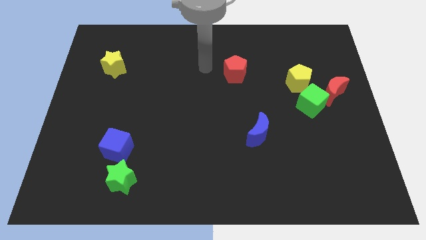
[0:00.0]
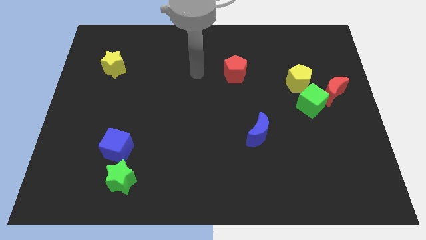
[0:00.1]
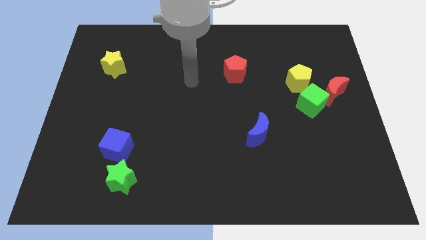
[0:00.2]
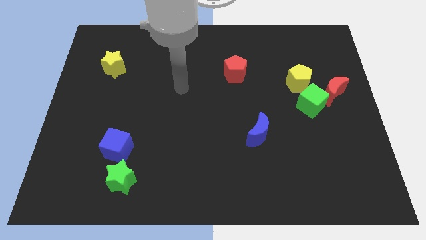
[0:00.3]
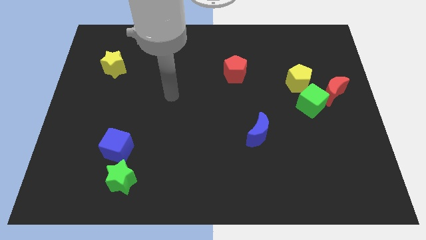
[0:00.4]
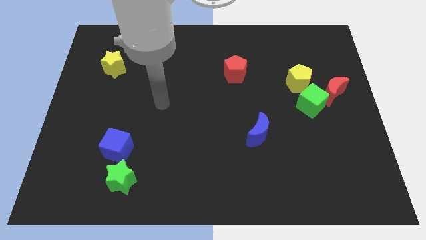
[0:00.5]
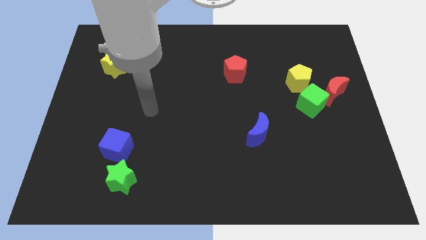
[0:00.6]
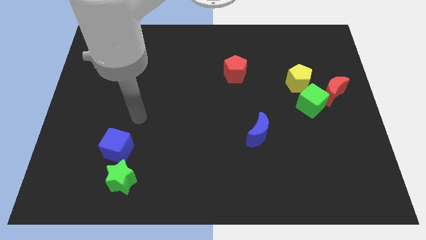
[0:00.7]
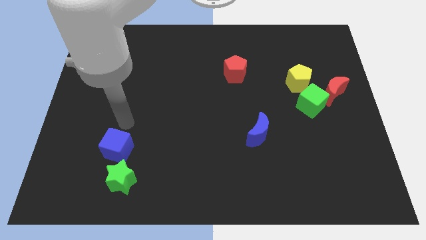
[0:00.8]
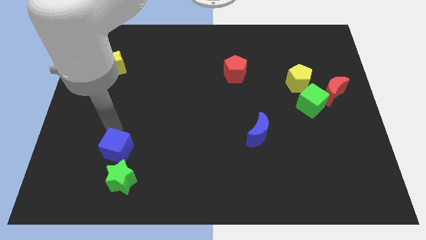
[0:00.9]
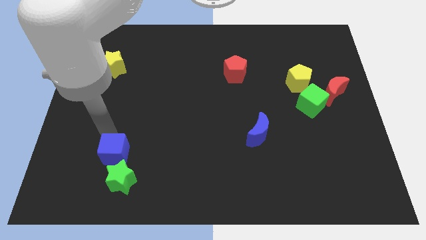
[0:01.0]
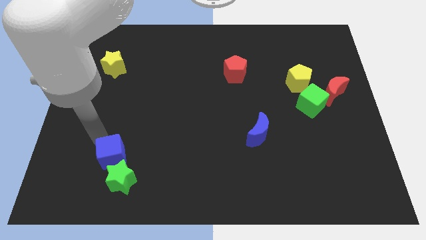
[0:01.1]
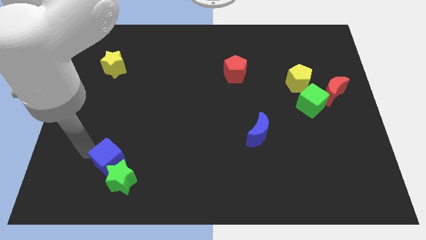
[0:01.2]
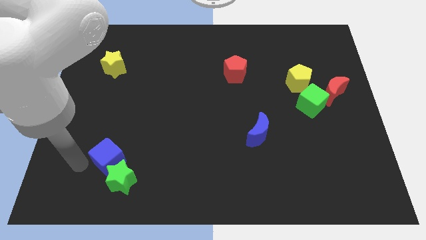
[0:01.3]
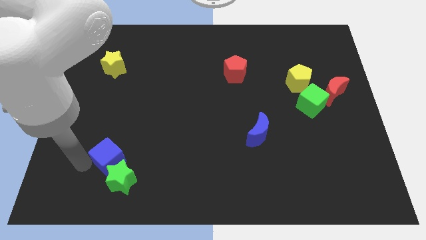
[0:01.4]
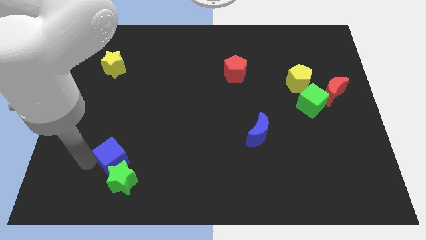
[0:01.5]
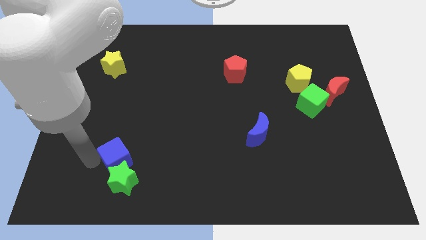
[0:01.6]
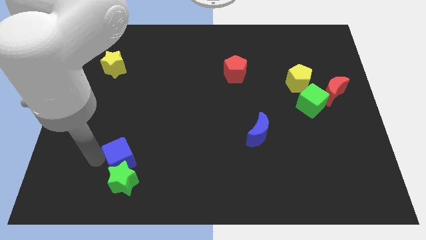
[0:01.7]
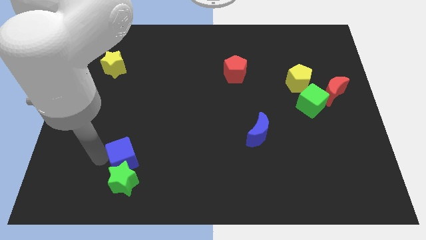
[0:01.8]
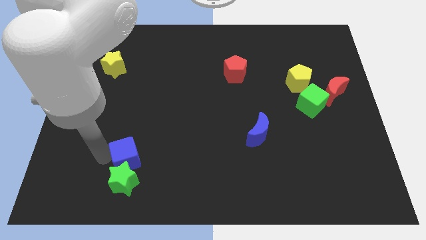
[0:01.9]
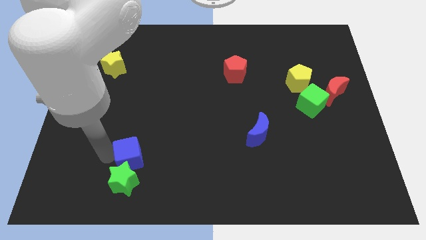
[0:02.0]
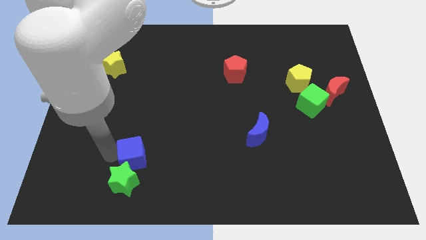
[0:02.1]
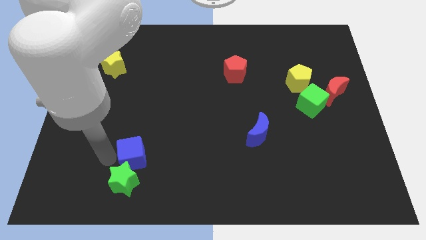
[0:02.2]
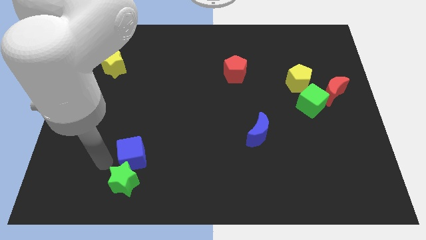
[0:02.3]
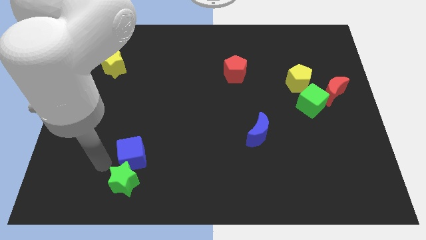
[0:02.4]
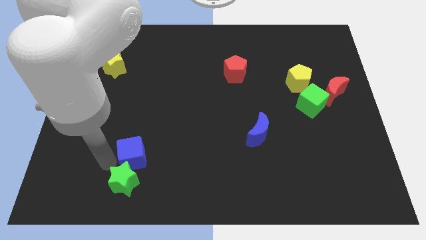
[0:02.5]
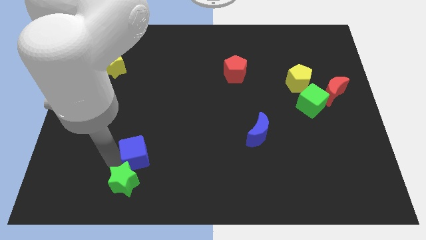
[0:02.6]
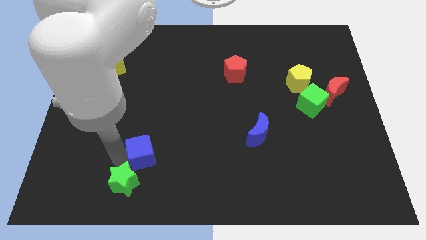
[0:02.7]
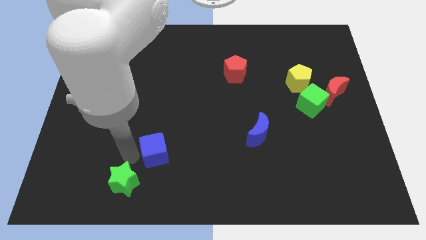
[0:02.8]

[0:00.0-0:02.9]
push the blue cube right a little

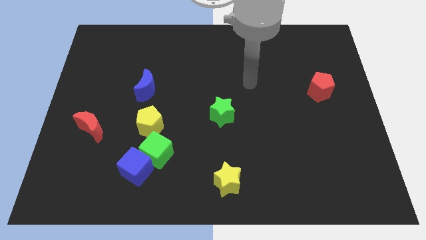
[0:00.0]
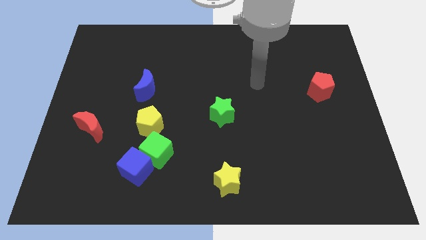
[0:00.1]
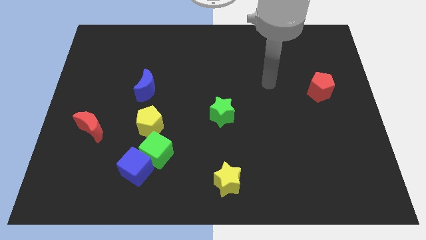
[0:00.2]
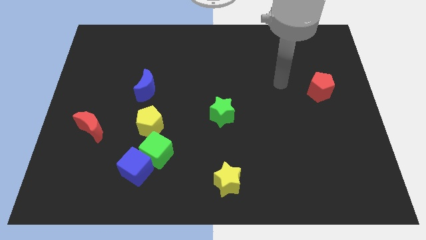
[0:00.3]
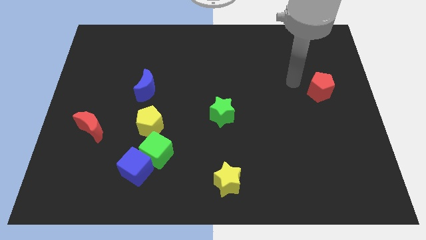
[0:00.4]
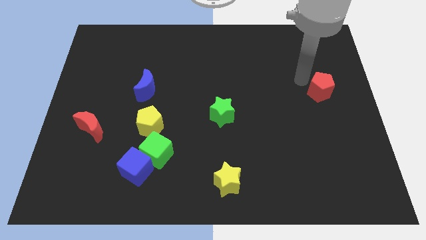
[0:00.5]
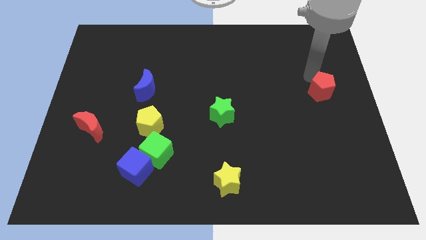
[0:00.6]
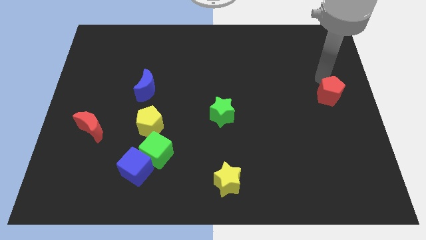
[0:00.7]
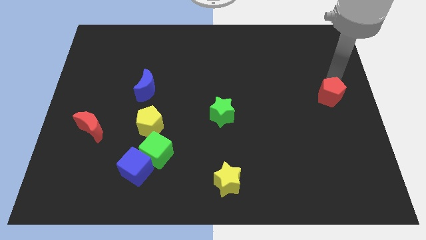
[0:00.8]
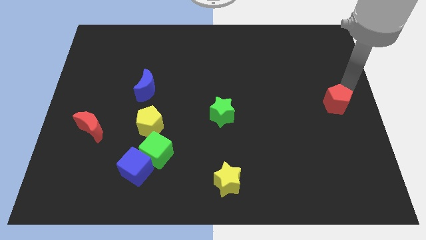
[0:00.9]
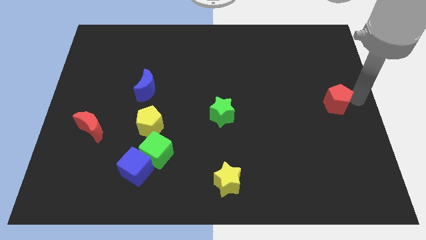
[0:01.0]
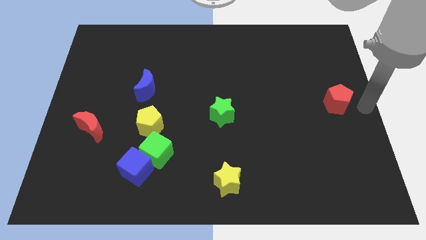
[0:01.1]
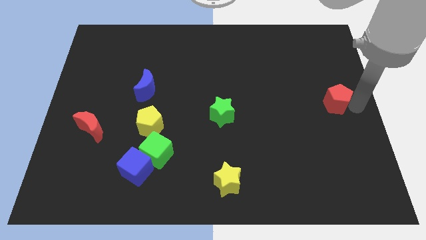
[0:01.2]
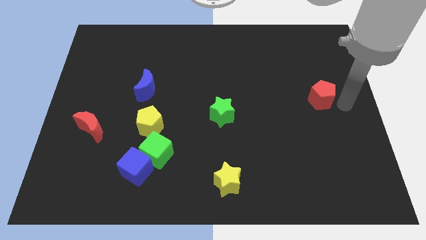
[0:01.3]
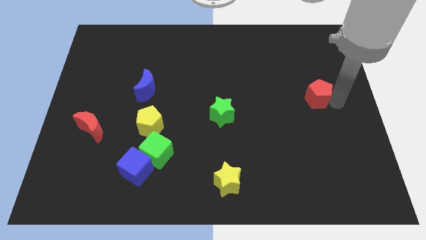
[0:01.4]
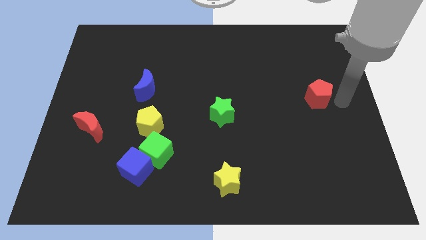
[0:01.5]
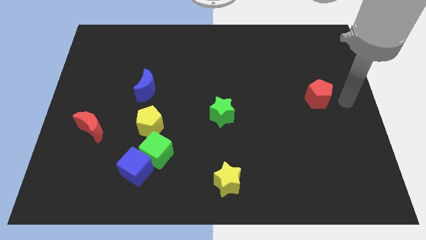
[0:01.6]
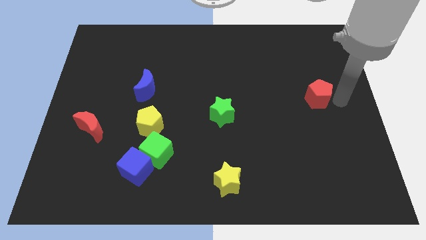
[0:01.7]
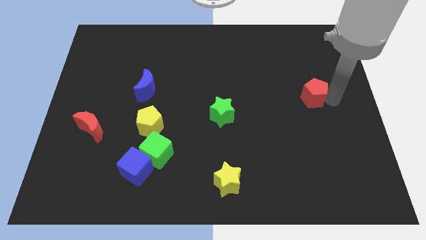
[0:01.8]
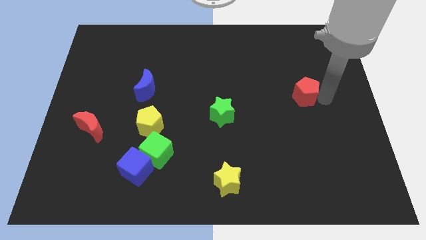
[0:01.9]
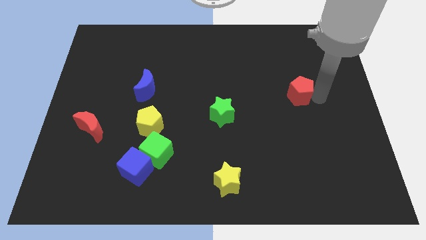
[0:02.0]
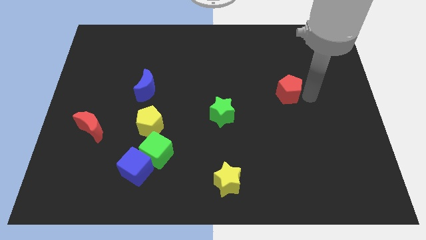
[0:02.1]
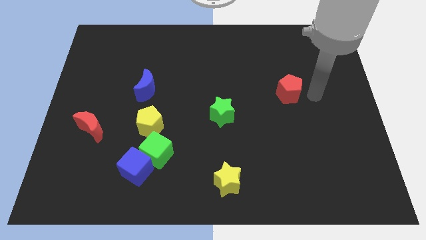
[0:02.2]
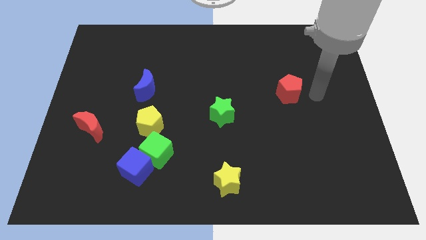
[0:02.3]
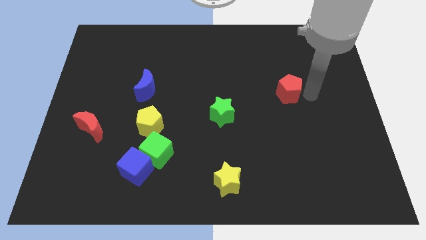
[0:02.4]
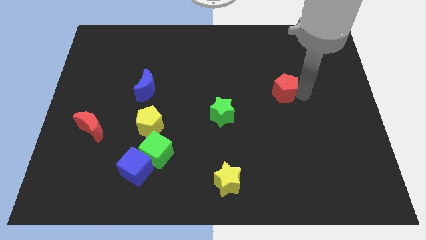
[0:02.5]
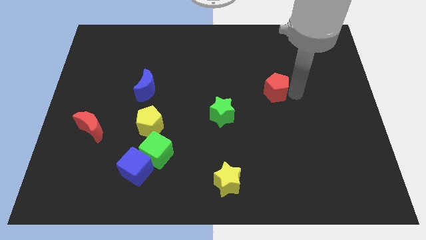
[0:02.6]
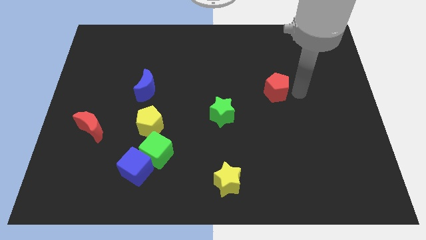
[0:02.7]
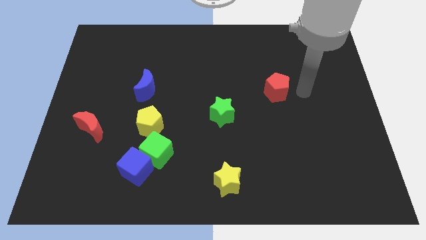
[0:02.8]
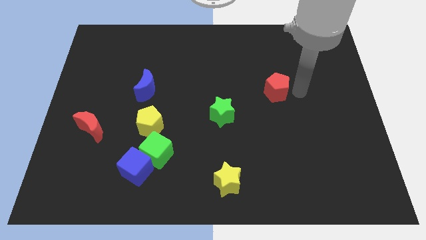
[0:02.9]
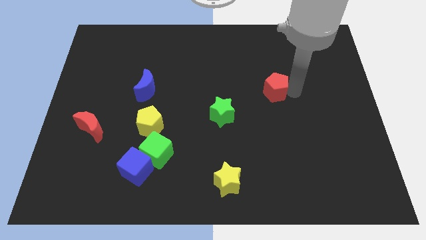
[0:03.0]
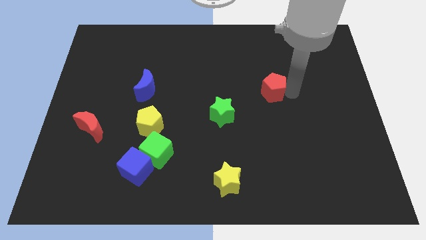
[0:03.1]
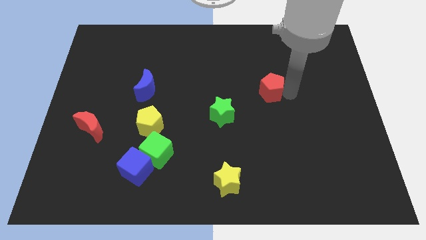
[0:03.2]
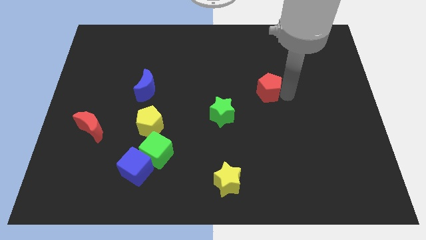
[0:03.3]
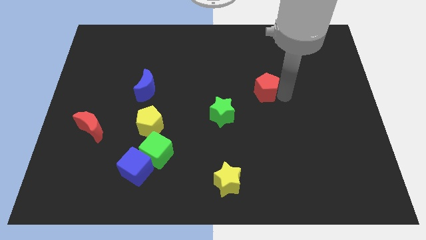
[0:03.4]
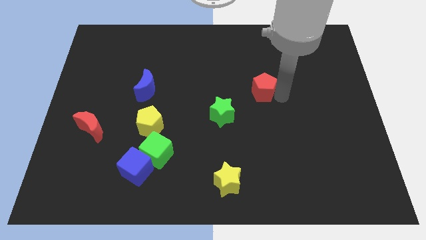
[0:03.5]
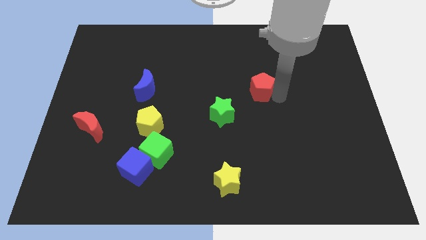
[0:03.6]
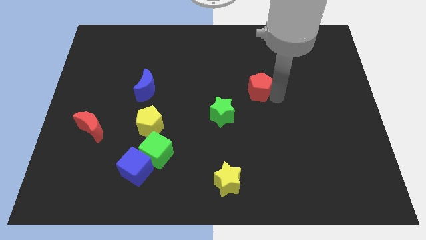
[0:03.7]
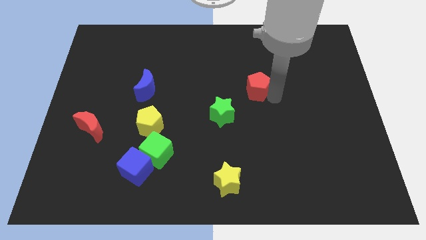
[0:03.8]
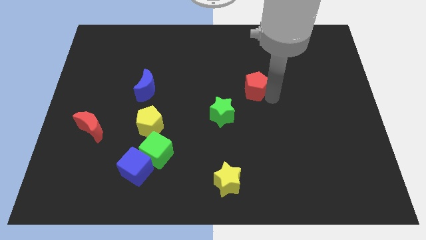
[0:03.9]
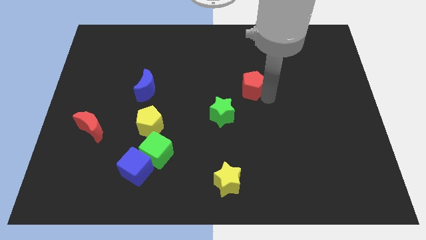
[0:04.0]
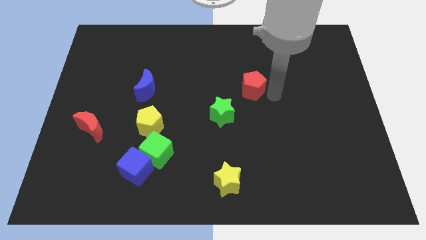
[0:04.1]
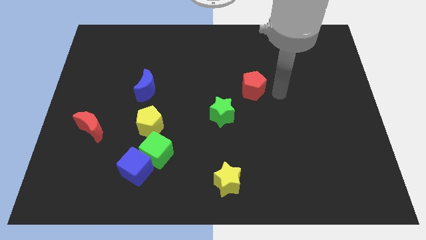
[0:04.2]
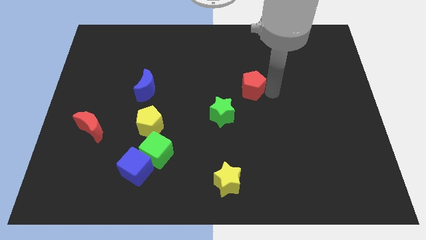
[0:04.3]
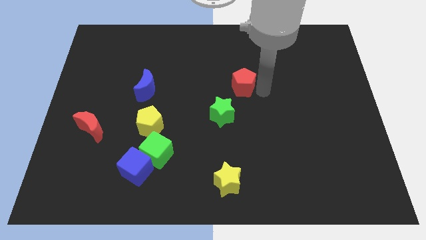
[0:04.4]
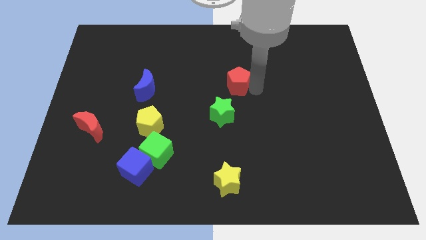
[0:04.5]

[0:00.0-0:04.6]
slide the red pentagon left

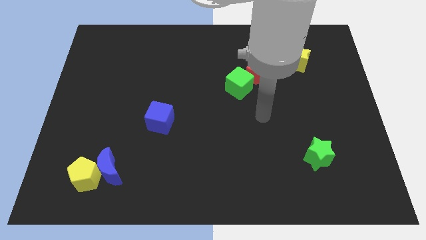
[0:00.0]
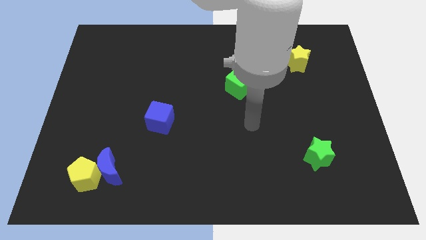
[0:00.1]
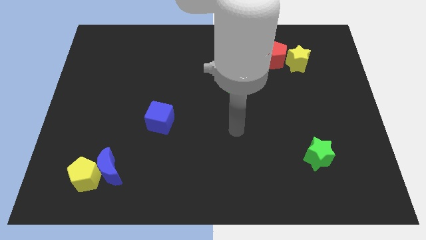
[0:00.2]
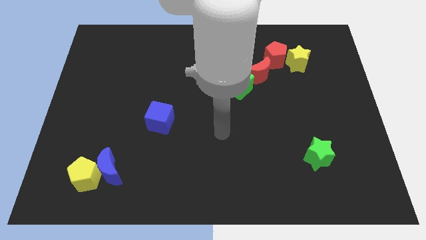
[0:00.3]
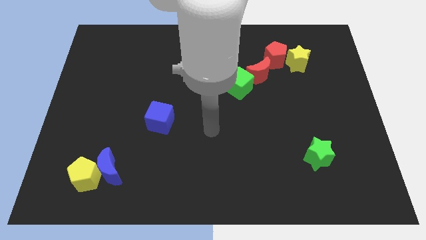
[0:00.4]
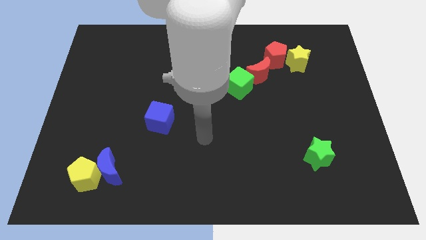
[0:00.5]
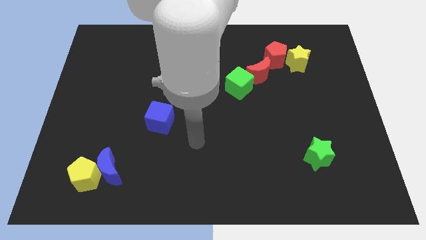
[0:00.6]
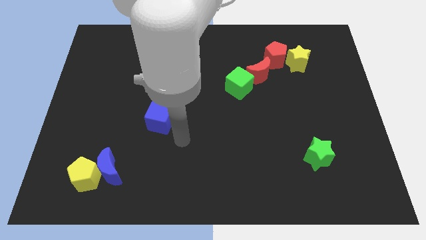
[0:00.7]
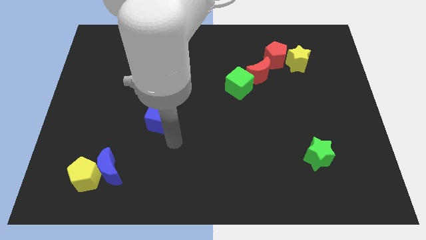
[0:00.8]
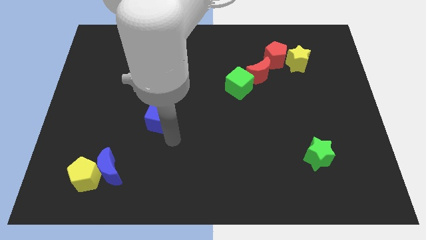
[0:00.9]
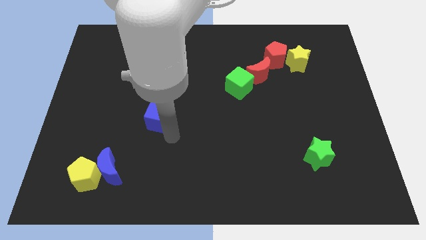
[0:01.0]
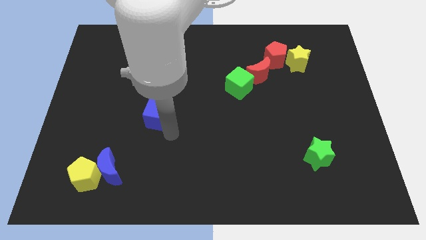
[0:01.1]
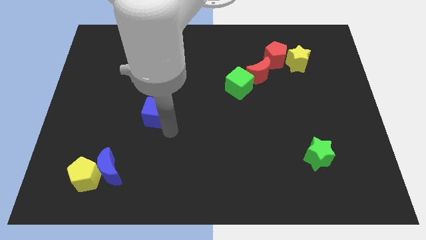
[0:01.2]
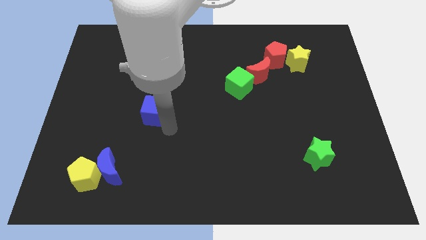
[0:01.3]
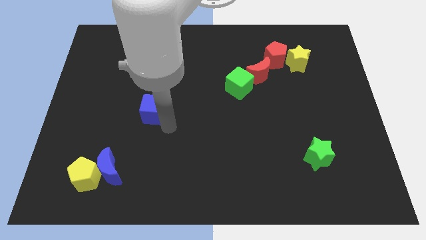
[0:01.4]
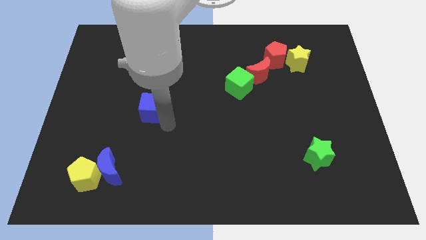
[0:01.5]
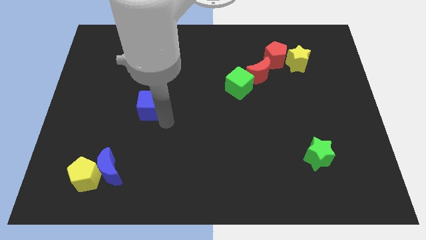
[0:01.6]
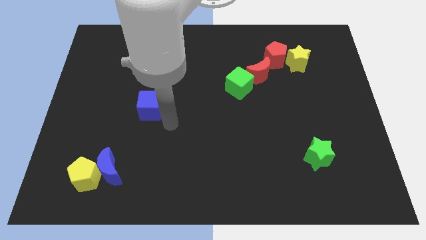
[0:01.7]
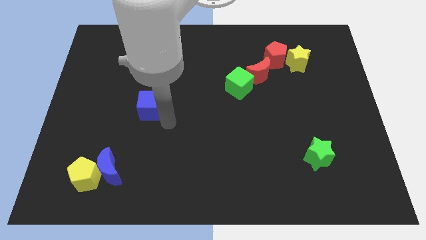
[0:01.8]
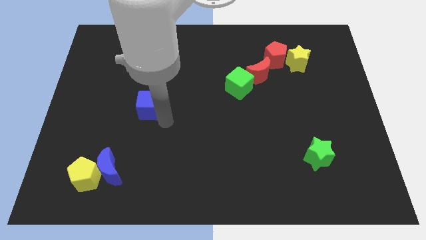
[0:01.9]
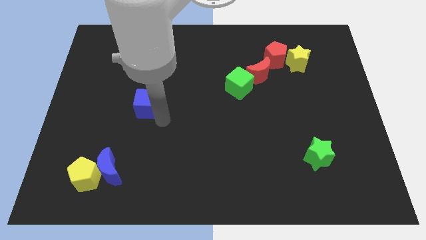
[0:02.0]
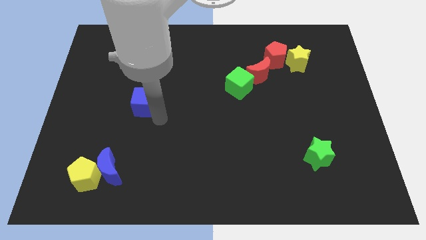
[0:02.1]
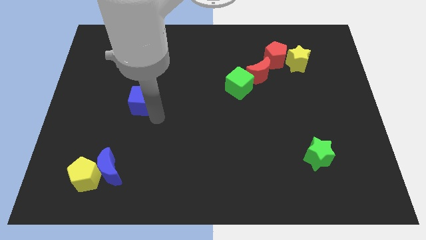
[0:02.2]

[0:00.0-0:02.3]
slide the blue cube upwards and left diagonally a little bit
